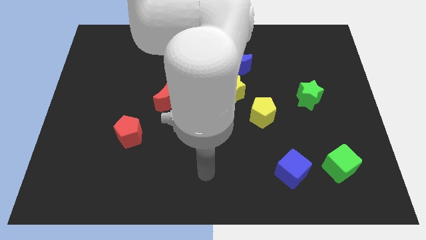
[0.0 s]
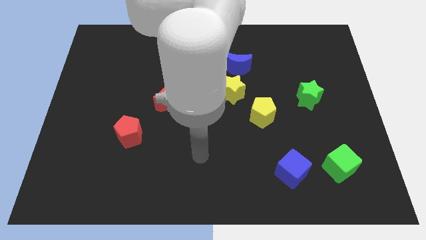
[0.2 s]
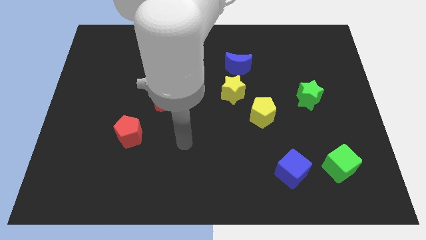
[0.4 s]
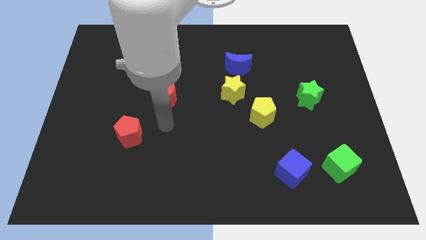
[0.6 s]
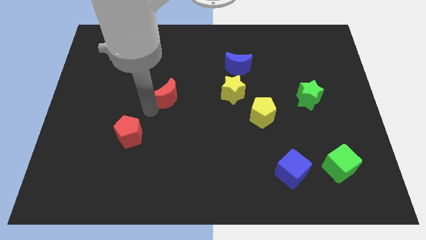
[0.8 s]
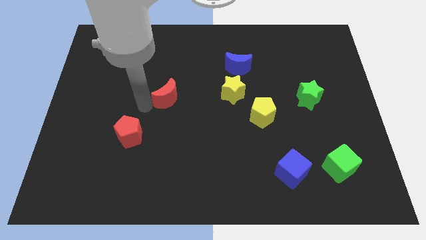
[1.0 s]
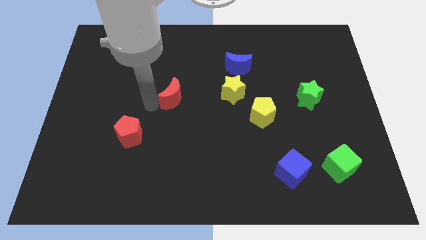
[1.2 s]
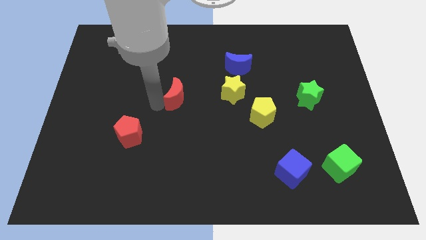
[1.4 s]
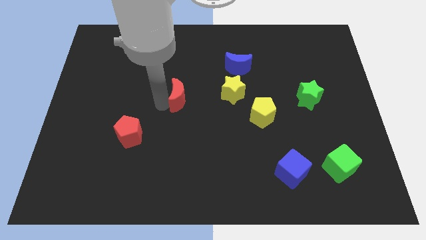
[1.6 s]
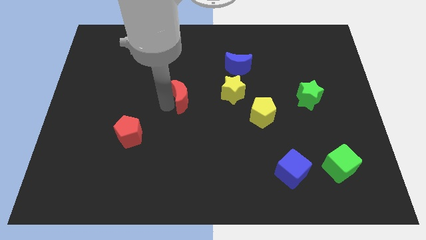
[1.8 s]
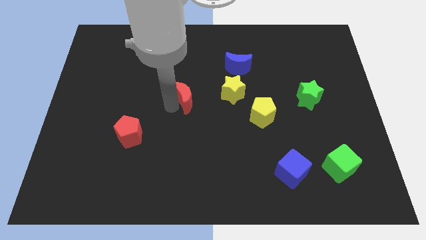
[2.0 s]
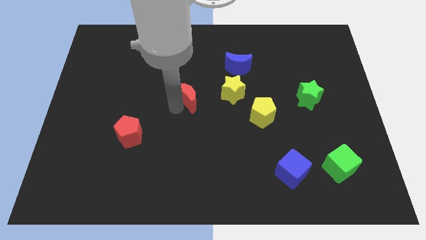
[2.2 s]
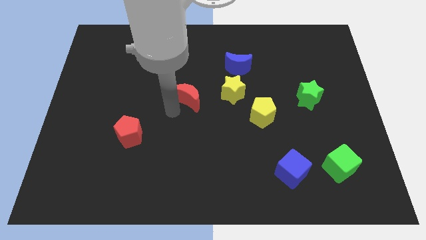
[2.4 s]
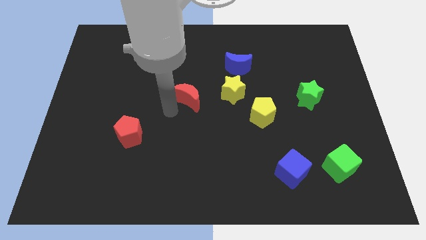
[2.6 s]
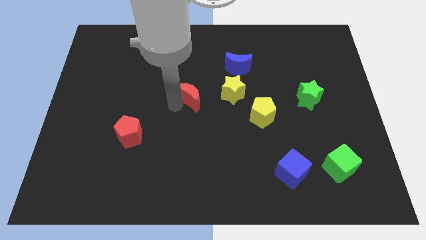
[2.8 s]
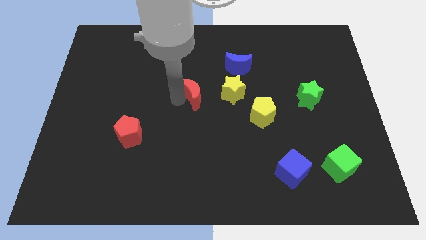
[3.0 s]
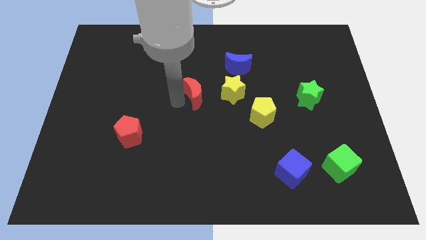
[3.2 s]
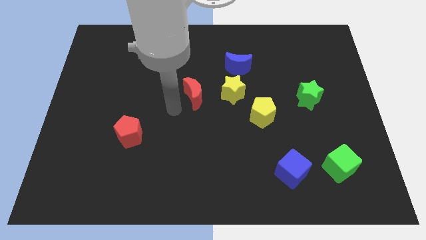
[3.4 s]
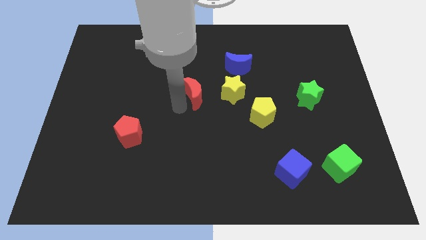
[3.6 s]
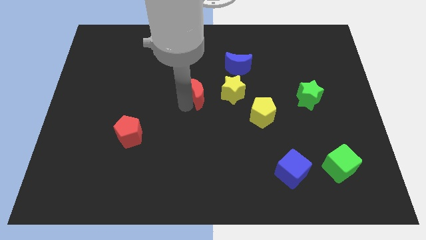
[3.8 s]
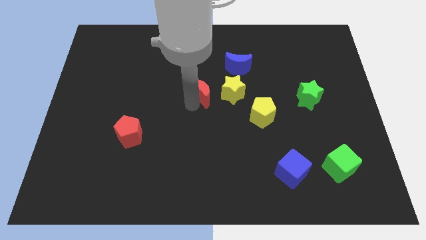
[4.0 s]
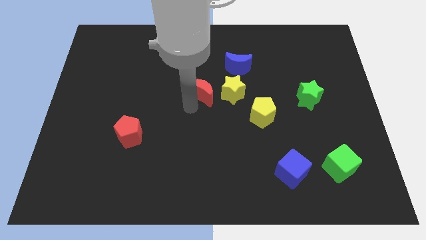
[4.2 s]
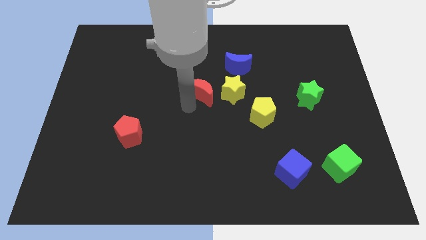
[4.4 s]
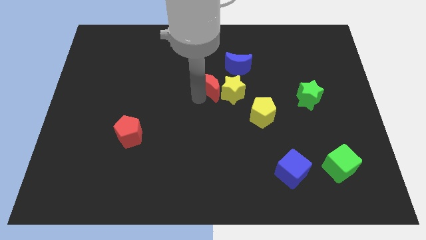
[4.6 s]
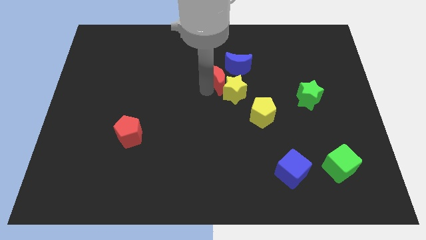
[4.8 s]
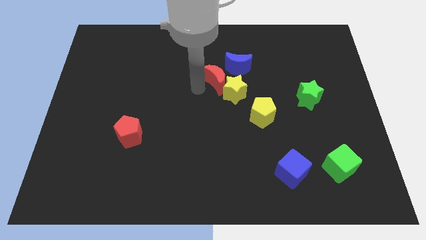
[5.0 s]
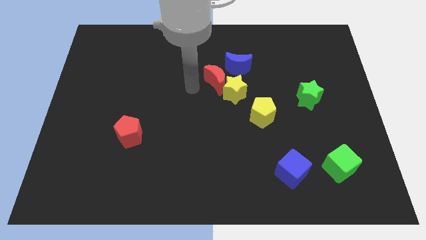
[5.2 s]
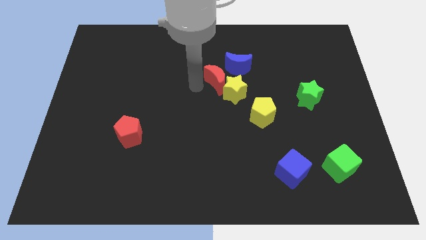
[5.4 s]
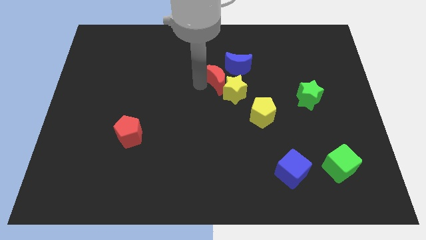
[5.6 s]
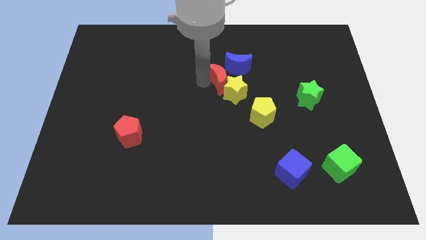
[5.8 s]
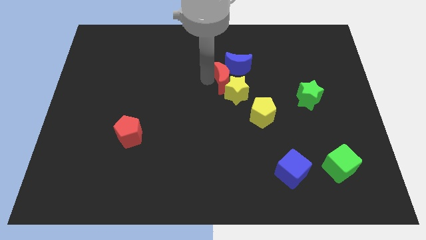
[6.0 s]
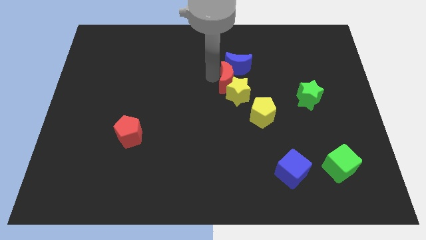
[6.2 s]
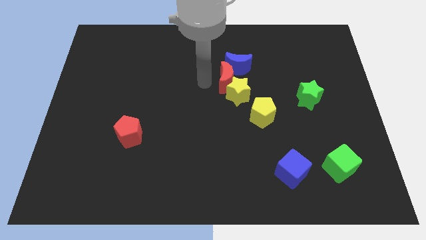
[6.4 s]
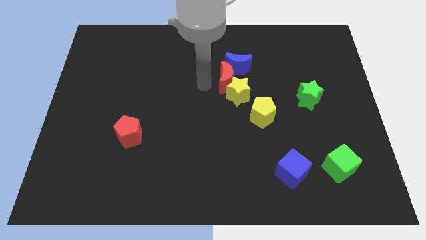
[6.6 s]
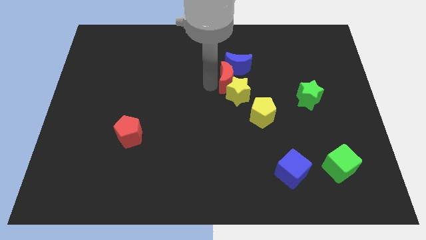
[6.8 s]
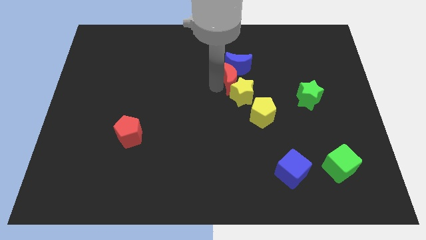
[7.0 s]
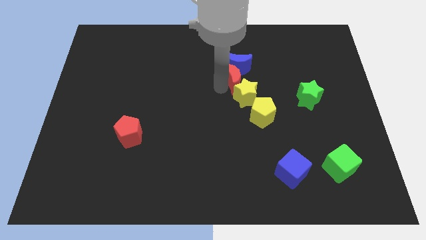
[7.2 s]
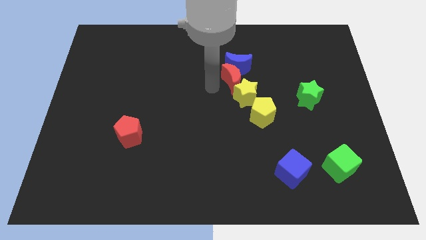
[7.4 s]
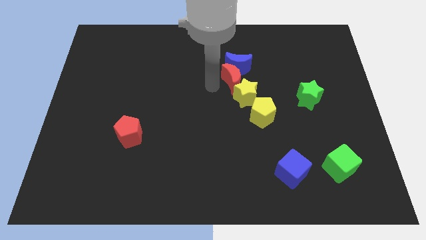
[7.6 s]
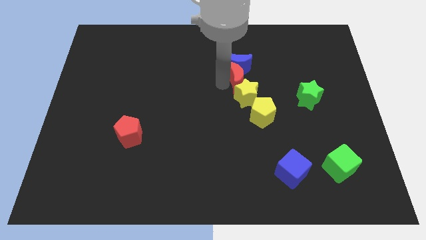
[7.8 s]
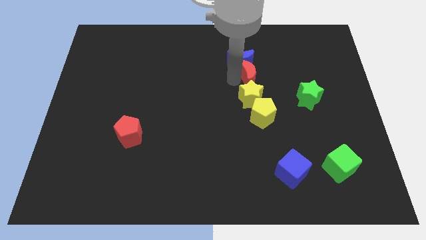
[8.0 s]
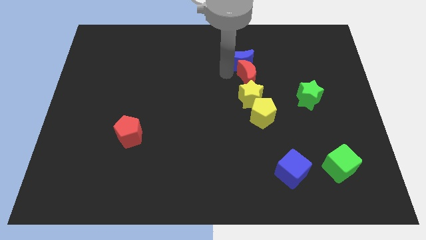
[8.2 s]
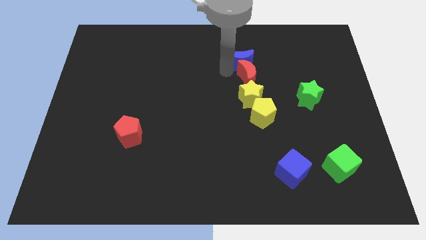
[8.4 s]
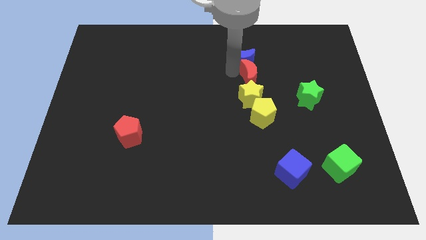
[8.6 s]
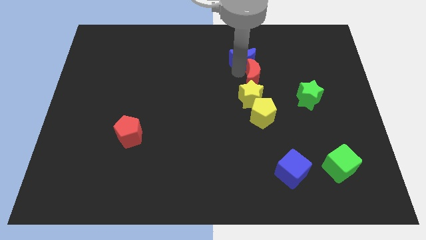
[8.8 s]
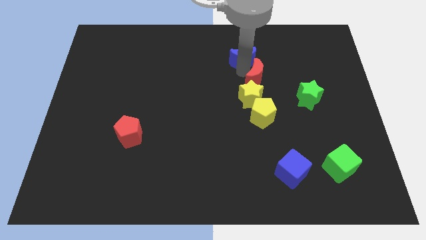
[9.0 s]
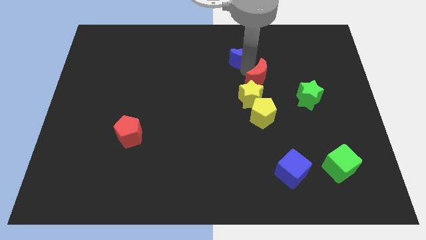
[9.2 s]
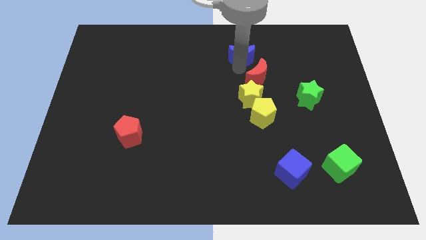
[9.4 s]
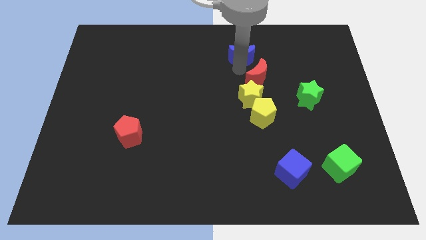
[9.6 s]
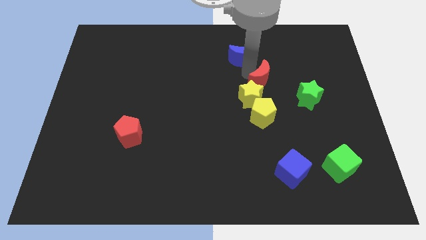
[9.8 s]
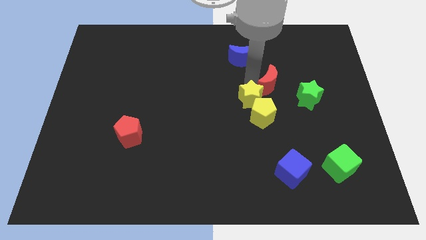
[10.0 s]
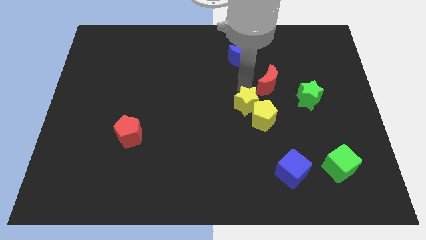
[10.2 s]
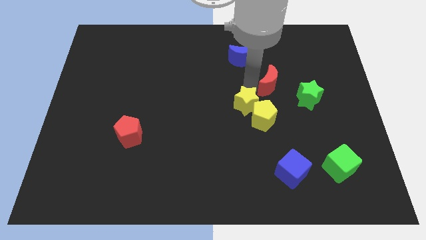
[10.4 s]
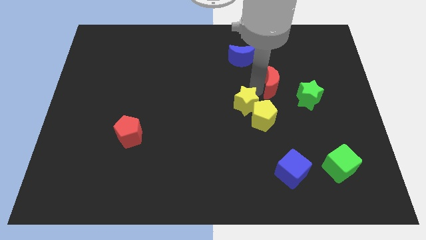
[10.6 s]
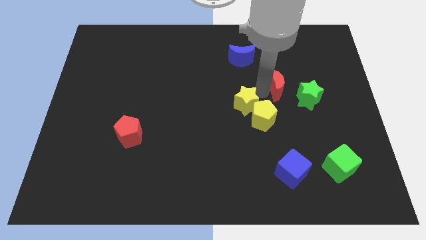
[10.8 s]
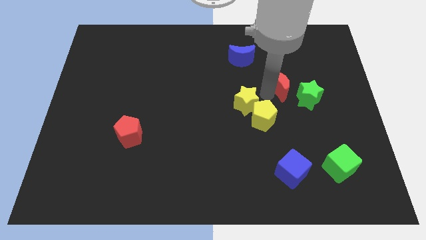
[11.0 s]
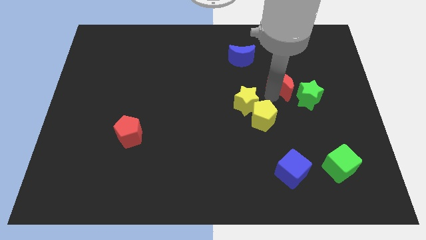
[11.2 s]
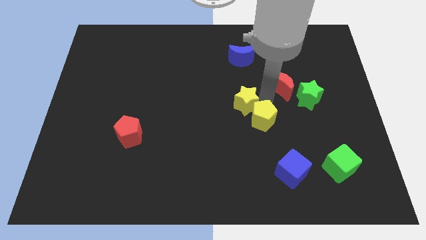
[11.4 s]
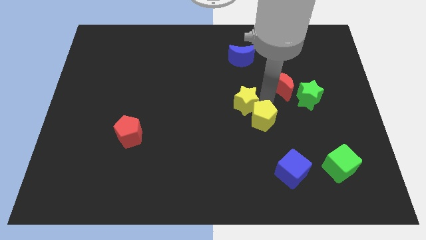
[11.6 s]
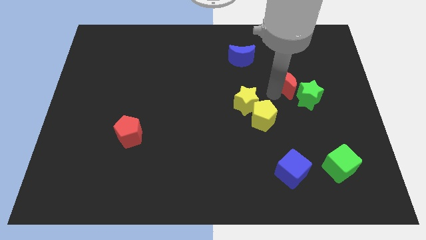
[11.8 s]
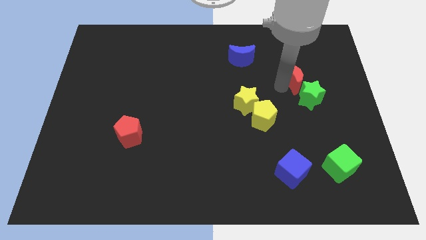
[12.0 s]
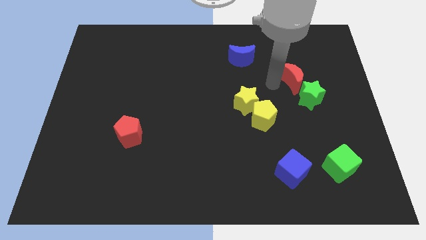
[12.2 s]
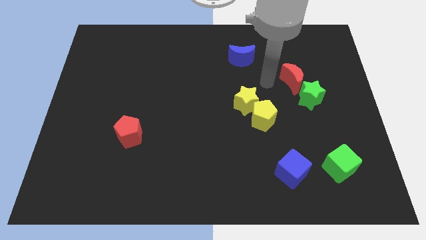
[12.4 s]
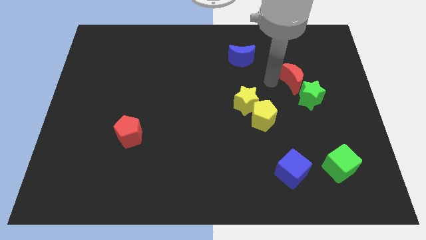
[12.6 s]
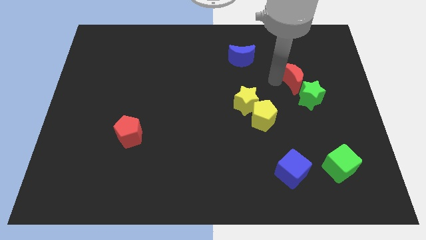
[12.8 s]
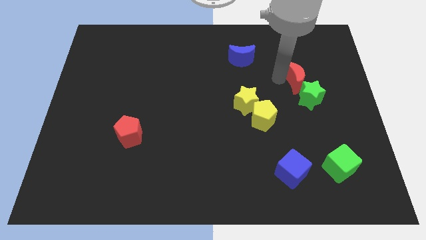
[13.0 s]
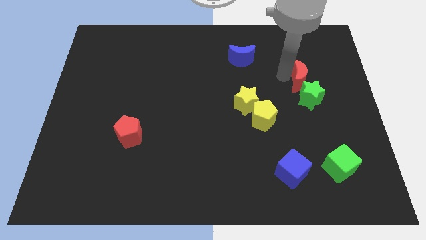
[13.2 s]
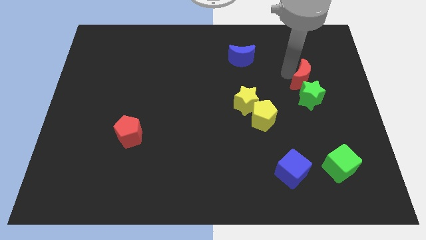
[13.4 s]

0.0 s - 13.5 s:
put the red moon to the top right of the green star

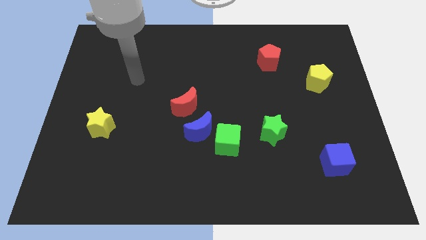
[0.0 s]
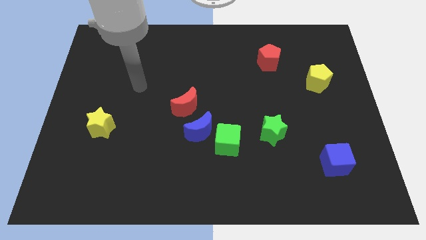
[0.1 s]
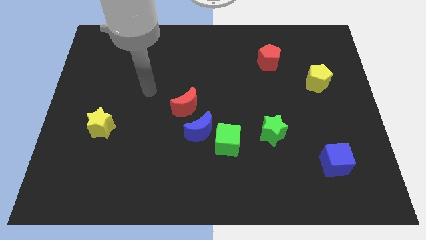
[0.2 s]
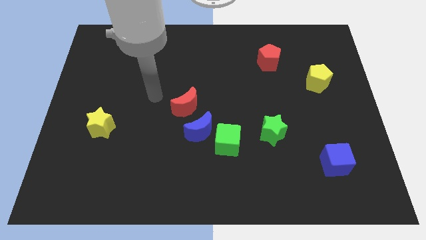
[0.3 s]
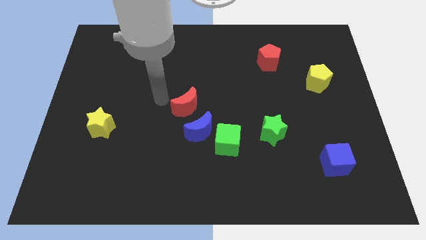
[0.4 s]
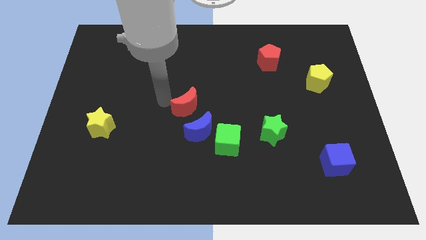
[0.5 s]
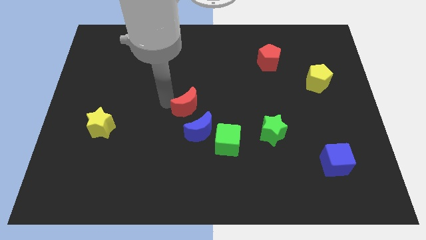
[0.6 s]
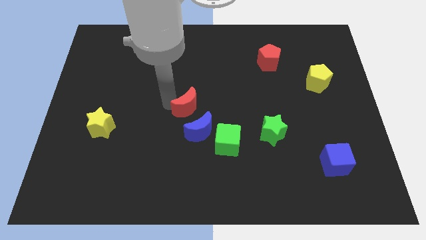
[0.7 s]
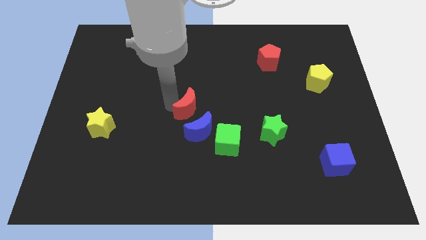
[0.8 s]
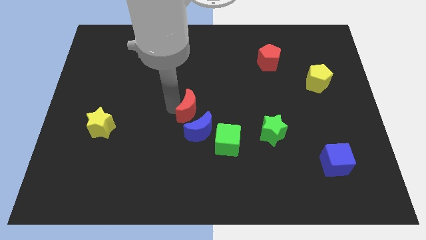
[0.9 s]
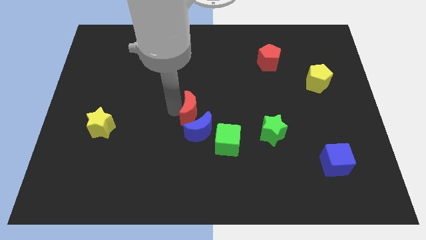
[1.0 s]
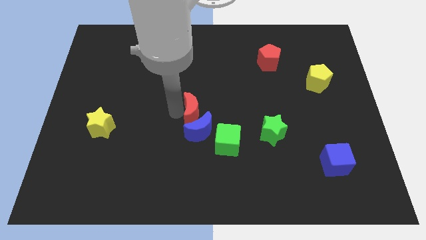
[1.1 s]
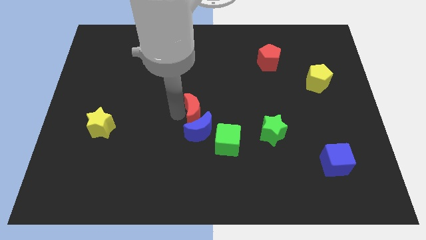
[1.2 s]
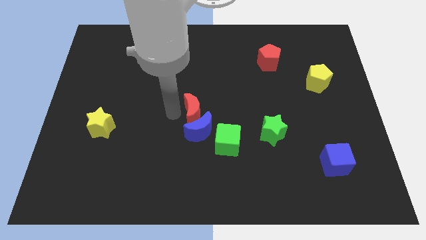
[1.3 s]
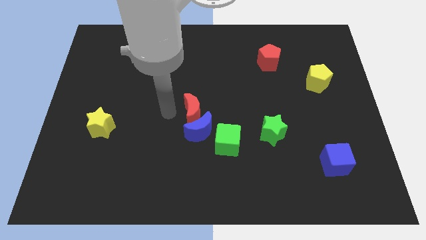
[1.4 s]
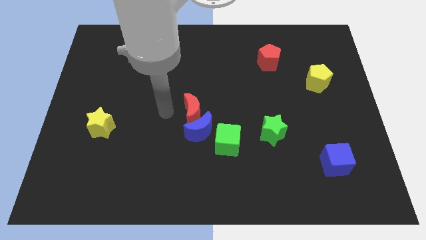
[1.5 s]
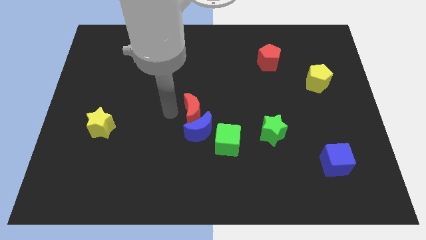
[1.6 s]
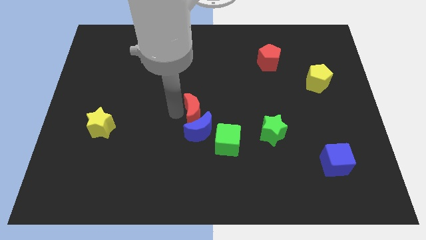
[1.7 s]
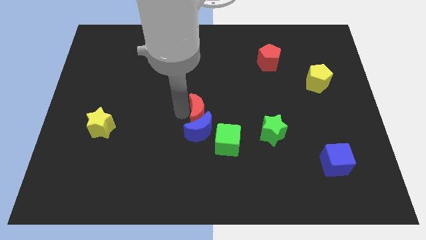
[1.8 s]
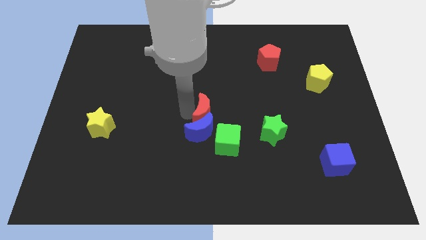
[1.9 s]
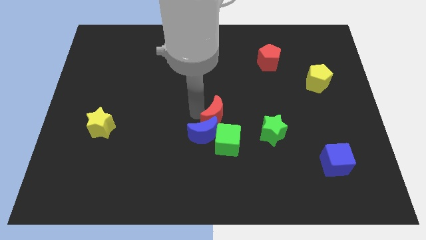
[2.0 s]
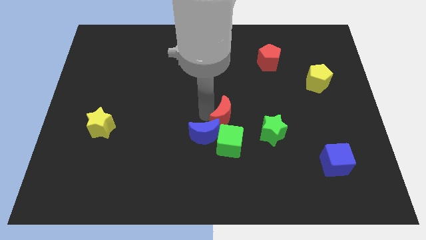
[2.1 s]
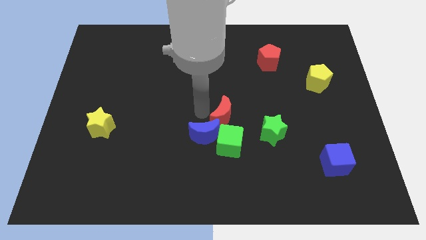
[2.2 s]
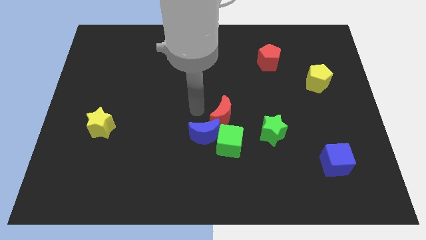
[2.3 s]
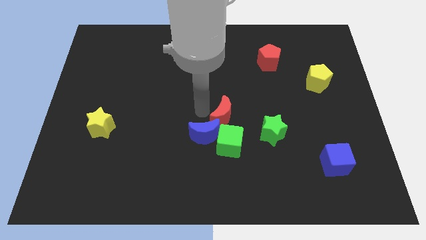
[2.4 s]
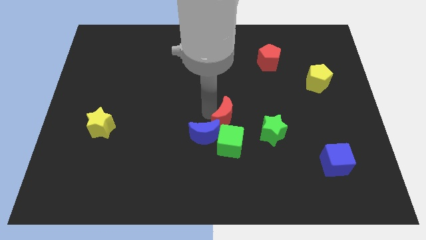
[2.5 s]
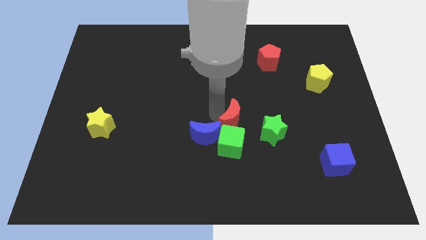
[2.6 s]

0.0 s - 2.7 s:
slide the red moon diagonally up and to the right of the green cube
